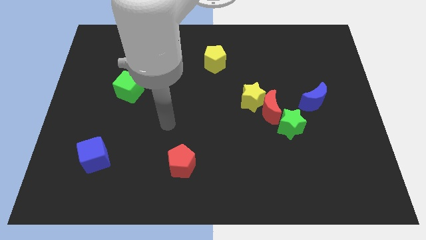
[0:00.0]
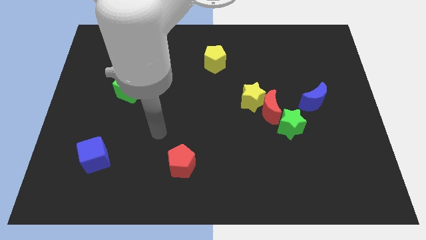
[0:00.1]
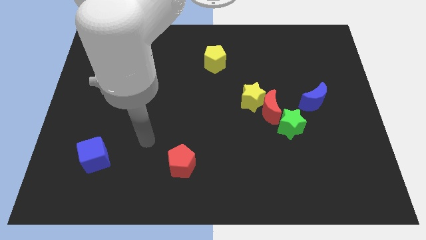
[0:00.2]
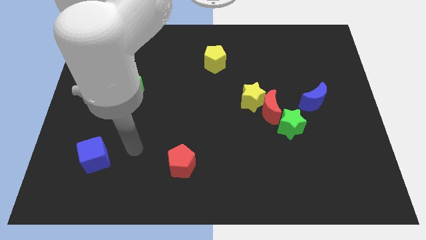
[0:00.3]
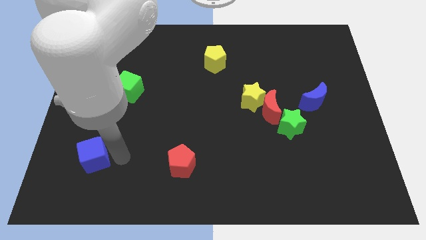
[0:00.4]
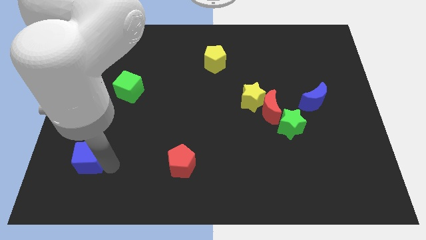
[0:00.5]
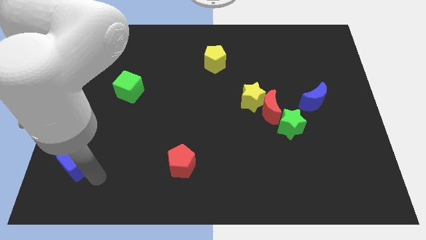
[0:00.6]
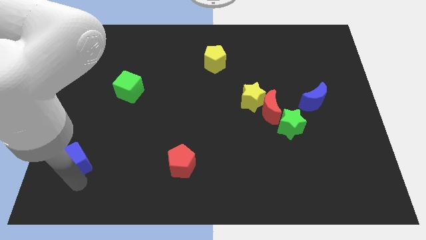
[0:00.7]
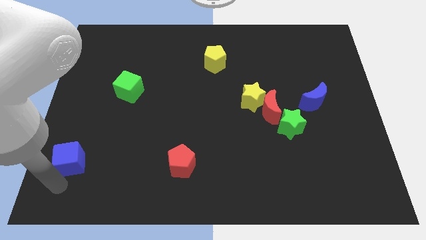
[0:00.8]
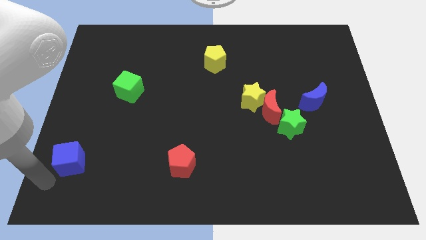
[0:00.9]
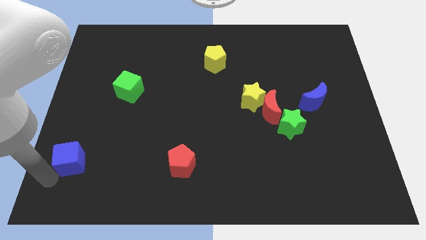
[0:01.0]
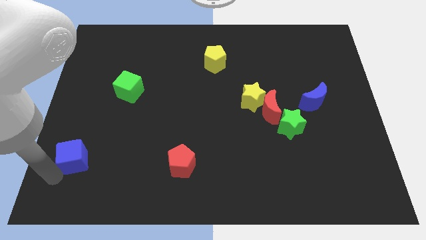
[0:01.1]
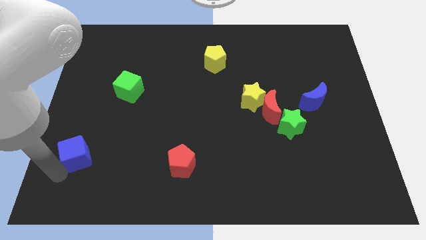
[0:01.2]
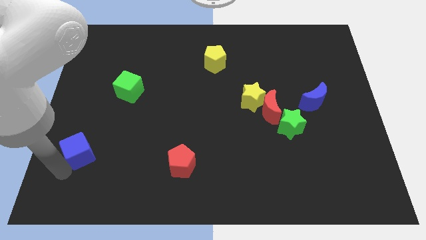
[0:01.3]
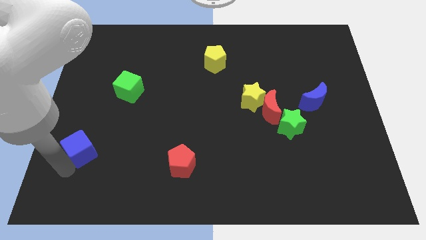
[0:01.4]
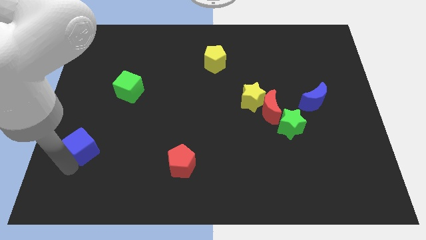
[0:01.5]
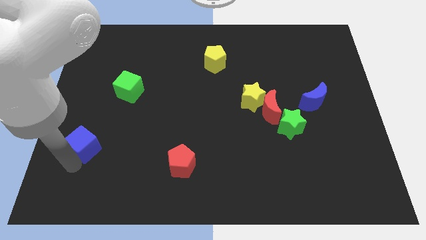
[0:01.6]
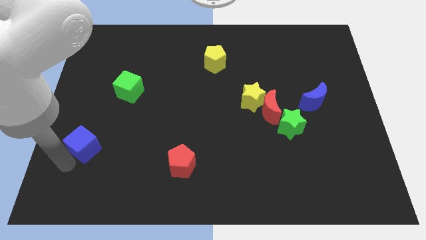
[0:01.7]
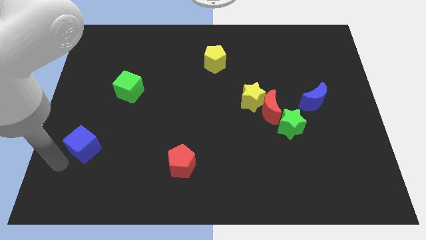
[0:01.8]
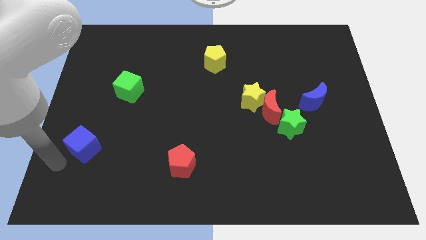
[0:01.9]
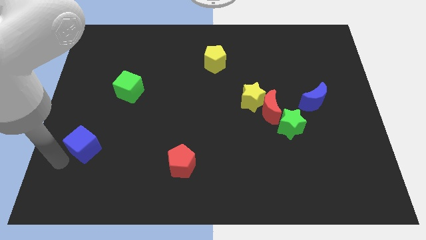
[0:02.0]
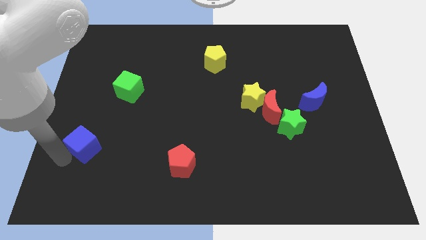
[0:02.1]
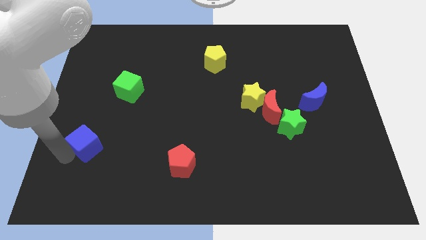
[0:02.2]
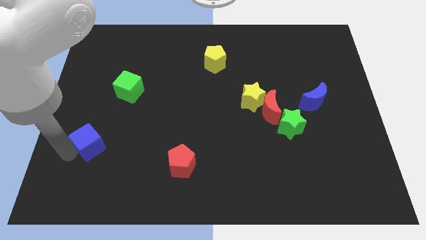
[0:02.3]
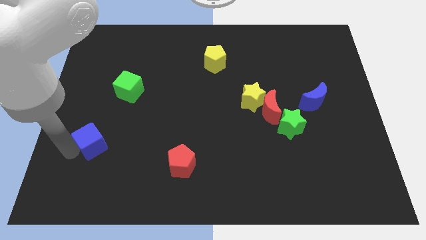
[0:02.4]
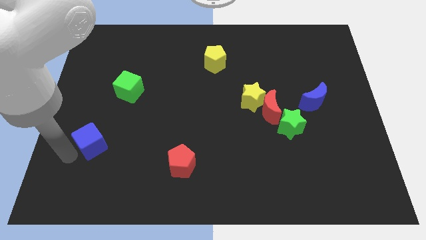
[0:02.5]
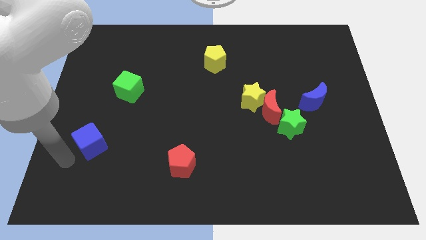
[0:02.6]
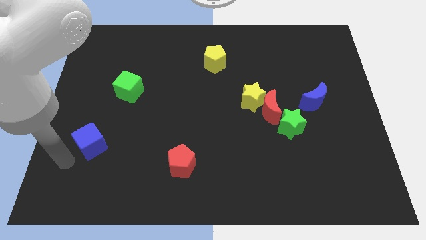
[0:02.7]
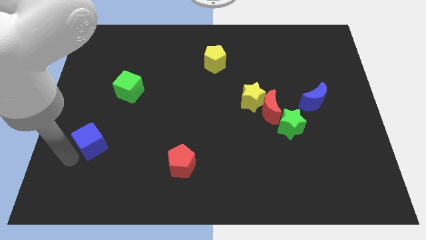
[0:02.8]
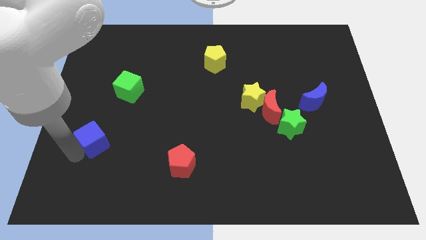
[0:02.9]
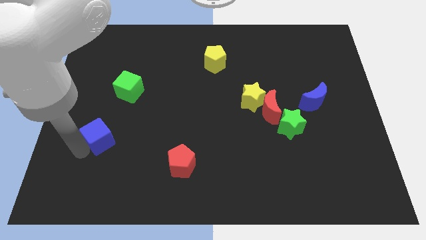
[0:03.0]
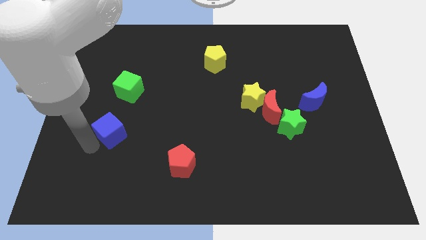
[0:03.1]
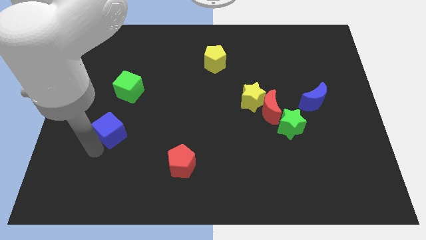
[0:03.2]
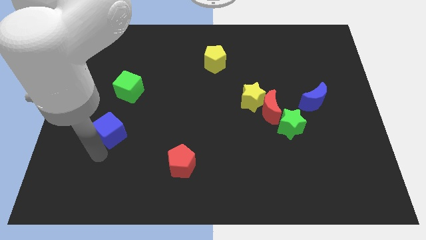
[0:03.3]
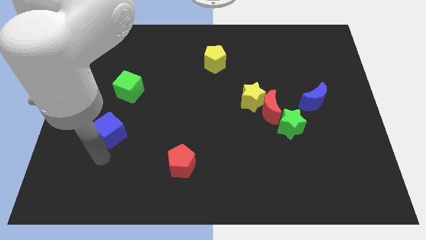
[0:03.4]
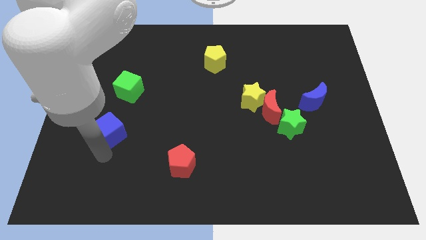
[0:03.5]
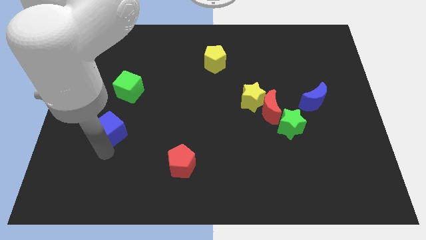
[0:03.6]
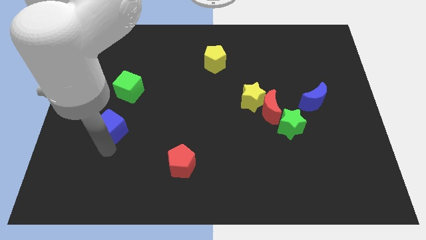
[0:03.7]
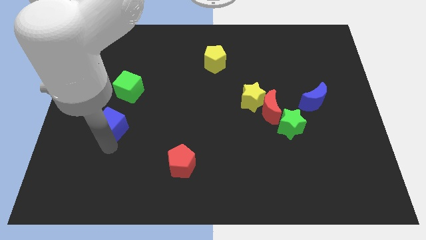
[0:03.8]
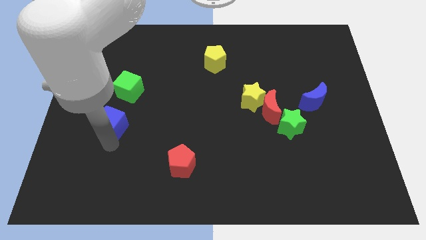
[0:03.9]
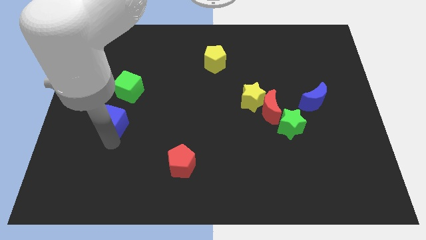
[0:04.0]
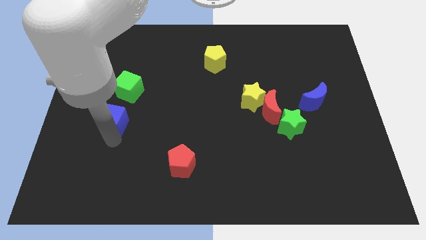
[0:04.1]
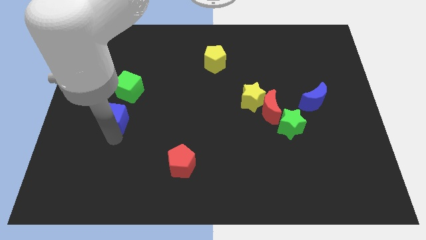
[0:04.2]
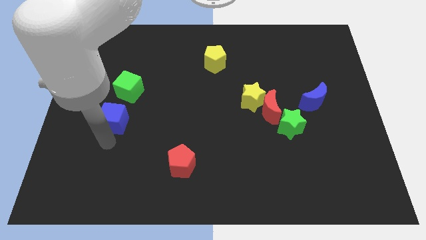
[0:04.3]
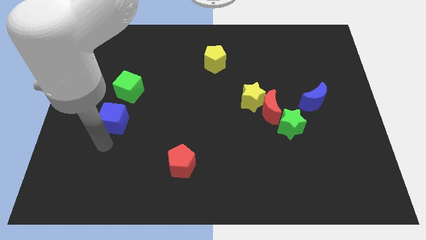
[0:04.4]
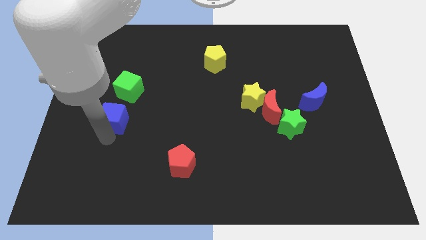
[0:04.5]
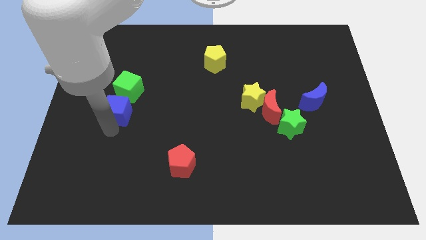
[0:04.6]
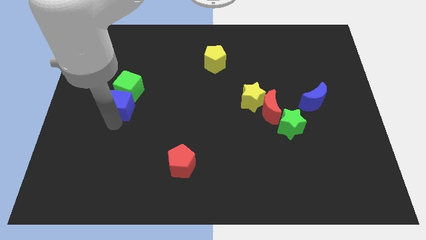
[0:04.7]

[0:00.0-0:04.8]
slide the blue cube towards the green cube

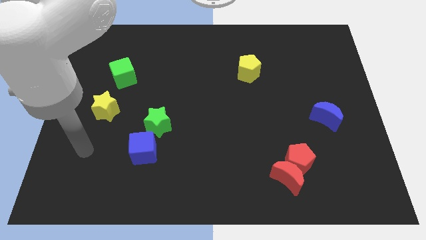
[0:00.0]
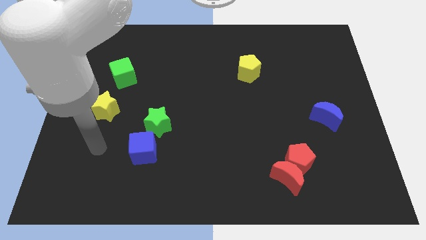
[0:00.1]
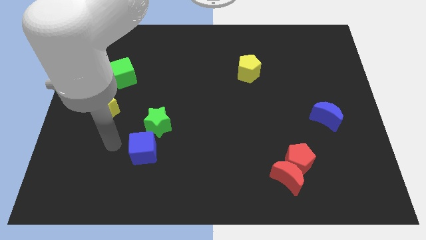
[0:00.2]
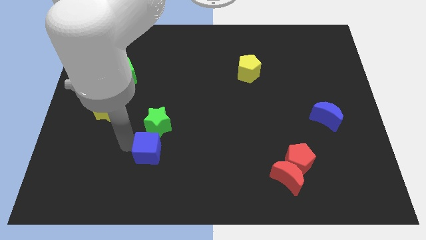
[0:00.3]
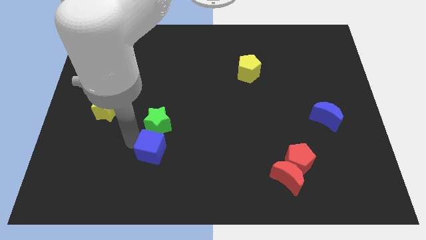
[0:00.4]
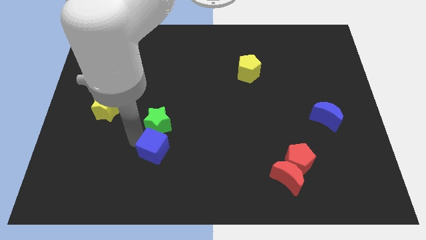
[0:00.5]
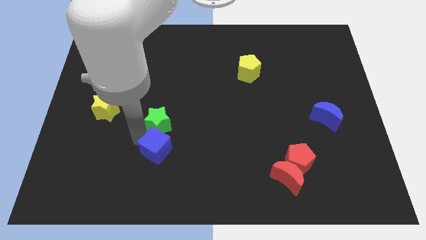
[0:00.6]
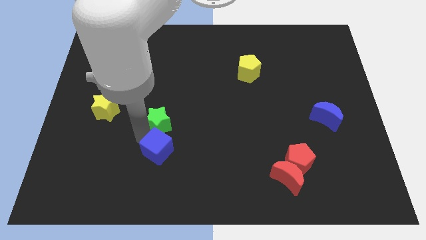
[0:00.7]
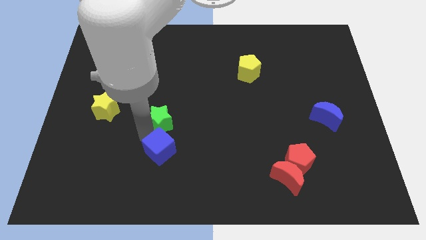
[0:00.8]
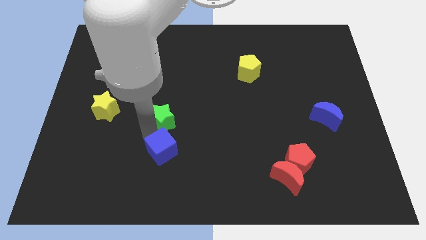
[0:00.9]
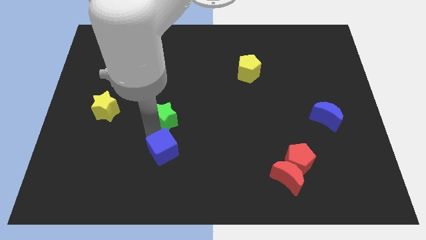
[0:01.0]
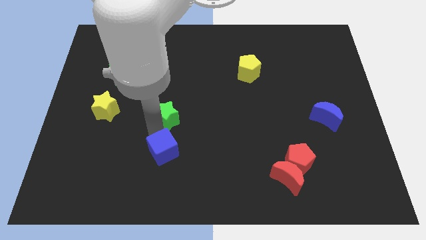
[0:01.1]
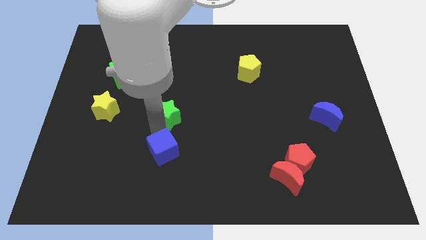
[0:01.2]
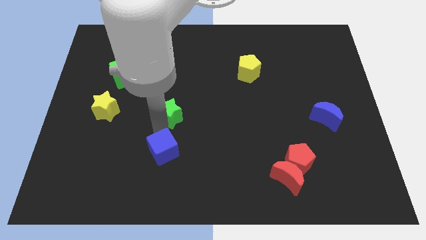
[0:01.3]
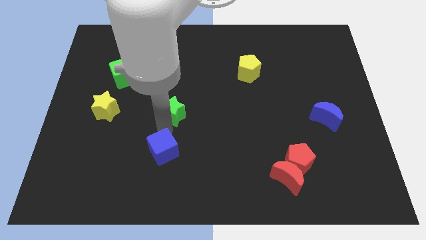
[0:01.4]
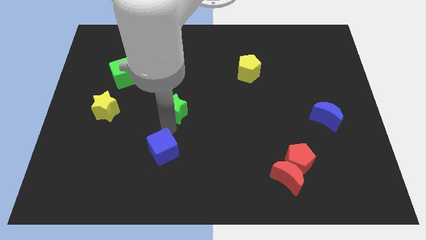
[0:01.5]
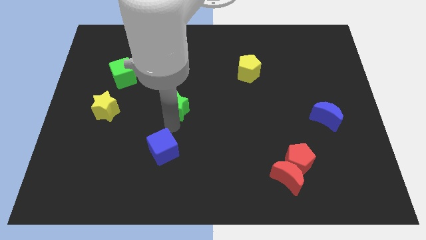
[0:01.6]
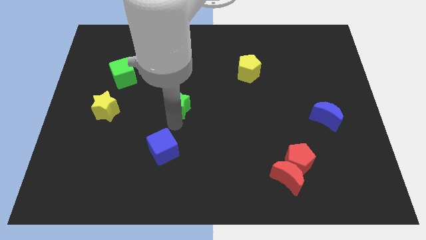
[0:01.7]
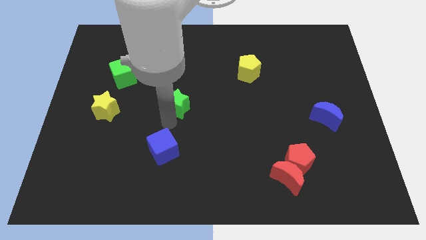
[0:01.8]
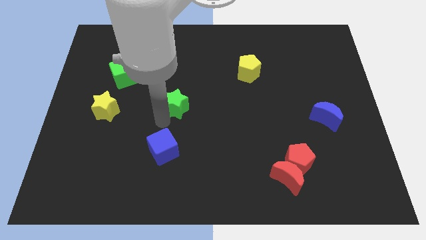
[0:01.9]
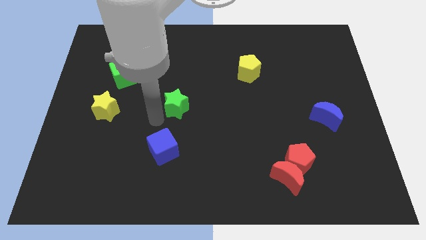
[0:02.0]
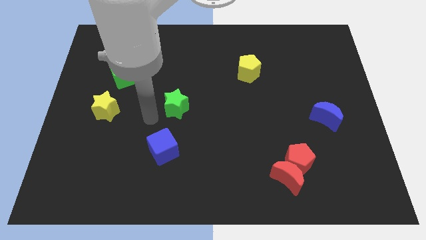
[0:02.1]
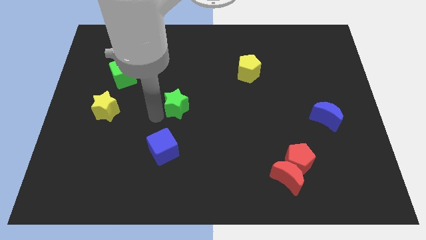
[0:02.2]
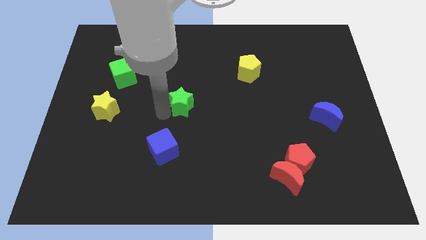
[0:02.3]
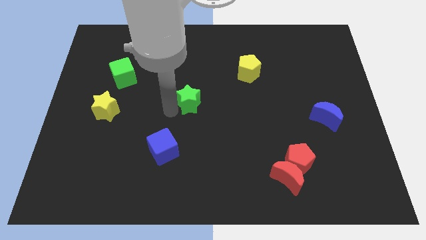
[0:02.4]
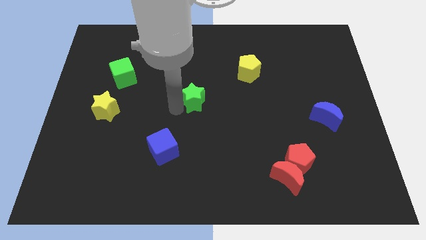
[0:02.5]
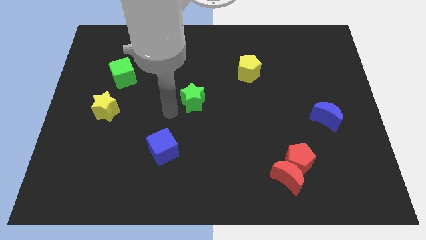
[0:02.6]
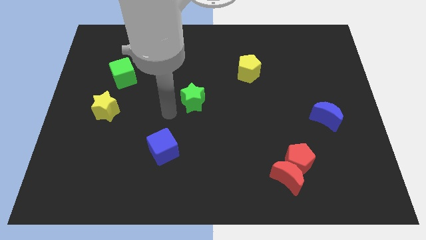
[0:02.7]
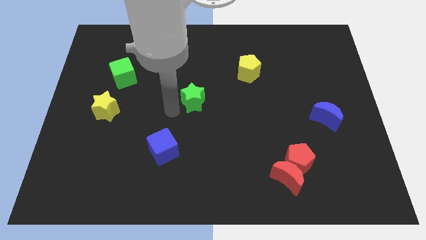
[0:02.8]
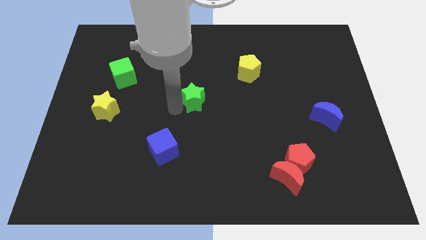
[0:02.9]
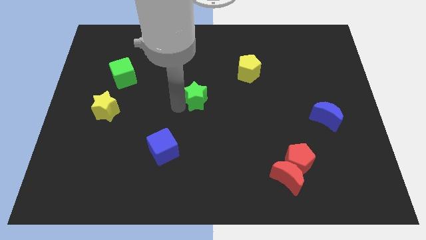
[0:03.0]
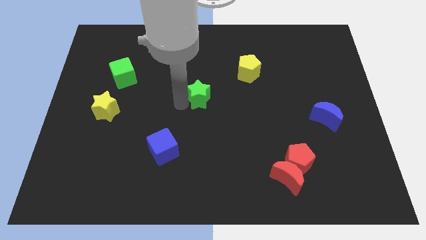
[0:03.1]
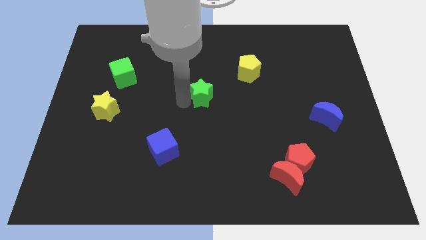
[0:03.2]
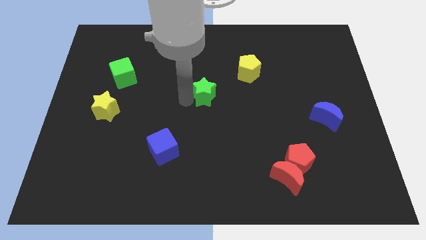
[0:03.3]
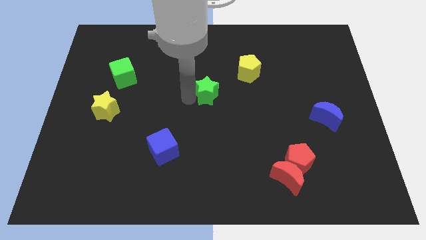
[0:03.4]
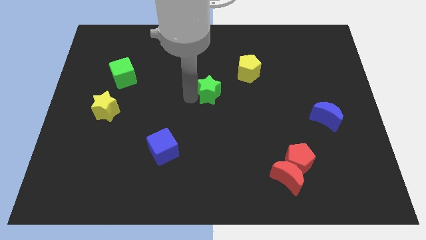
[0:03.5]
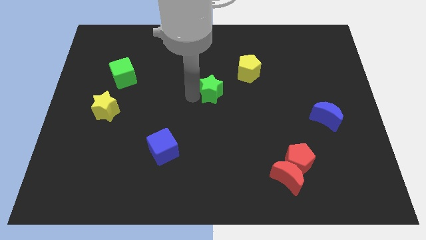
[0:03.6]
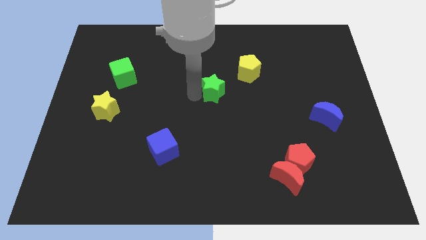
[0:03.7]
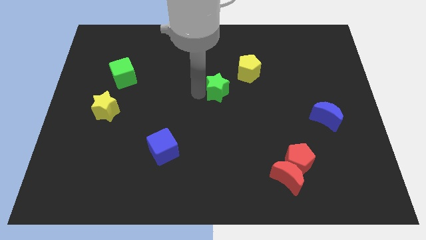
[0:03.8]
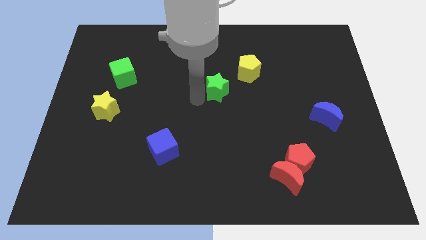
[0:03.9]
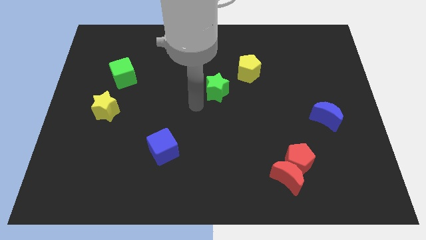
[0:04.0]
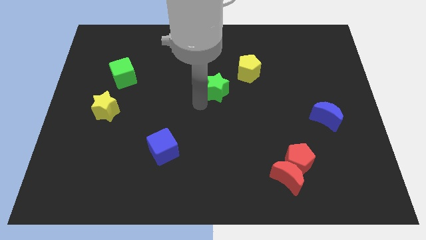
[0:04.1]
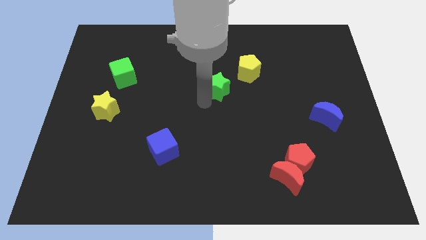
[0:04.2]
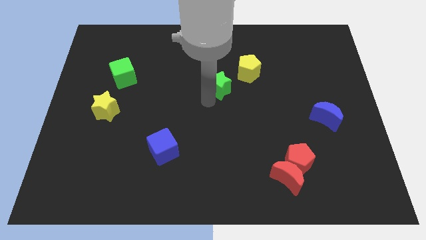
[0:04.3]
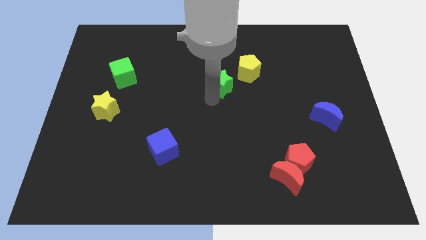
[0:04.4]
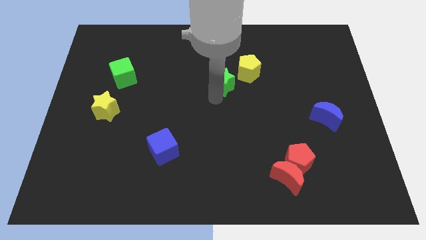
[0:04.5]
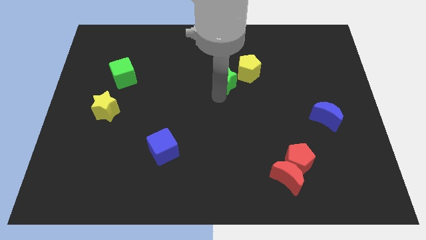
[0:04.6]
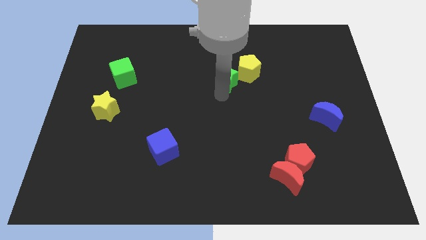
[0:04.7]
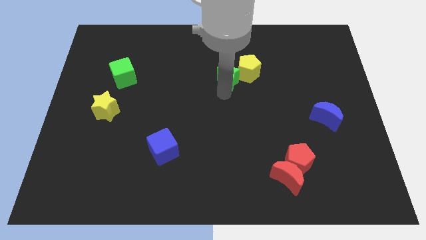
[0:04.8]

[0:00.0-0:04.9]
push the green star towards the yellow pentagon
